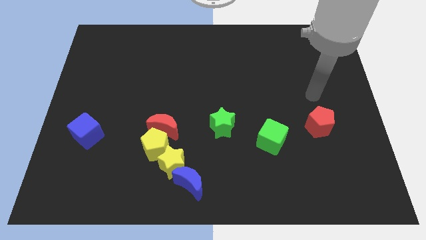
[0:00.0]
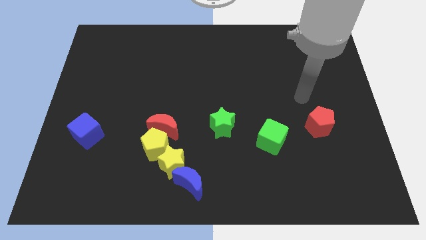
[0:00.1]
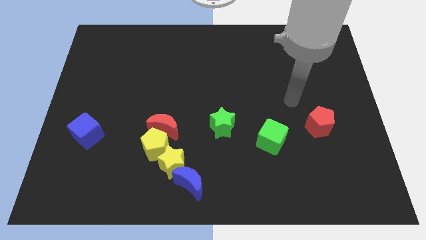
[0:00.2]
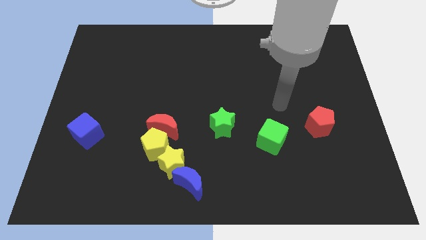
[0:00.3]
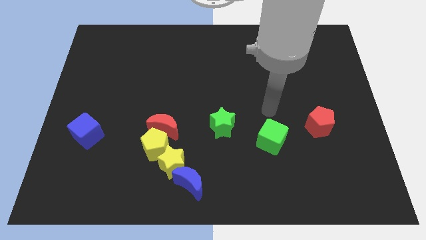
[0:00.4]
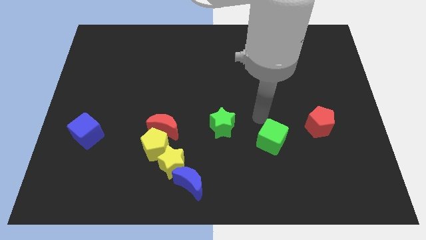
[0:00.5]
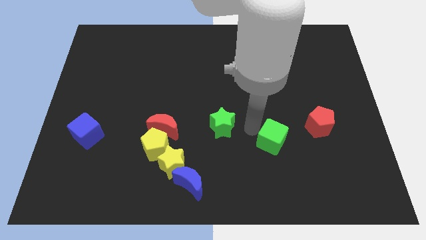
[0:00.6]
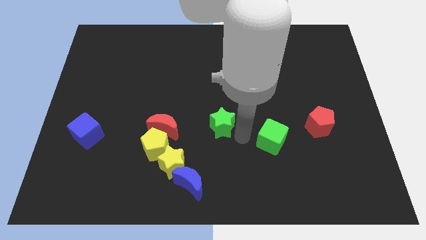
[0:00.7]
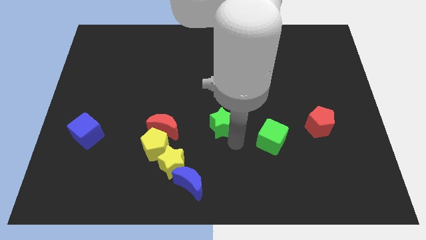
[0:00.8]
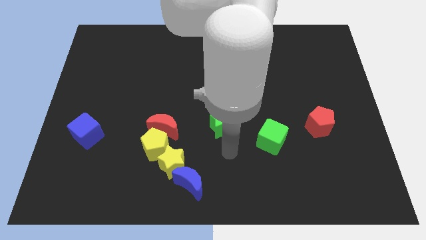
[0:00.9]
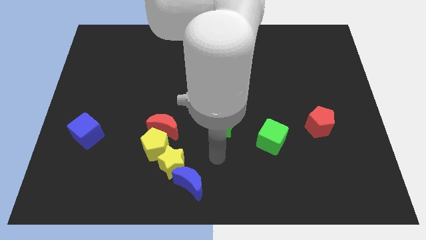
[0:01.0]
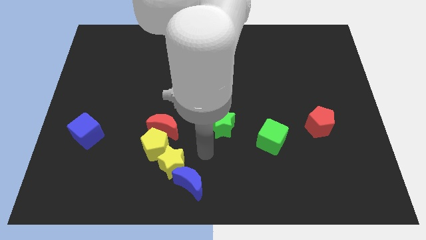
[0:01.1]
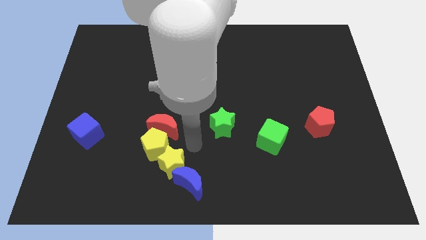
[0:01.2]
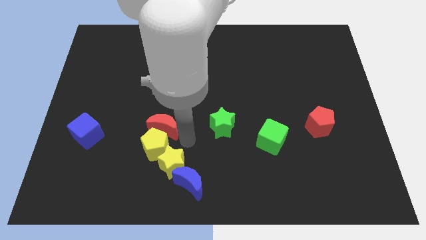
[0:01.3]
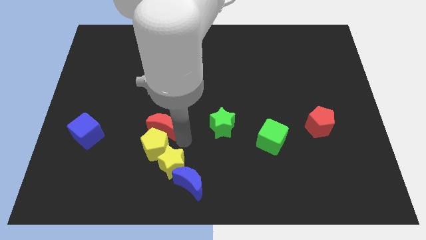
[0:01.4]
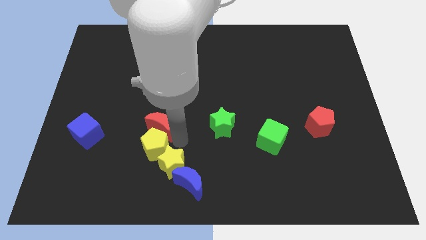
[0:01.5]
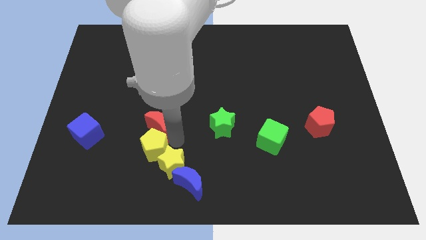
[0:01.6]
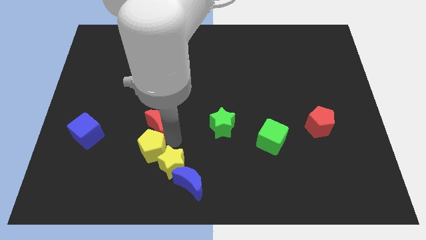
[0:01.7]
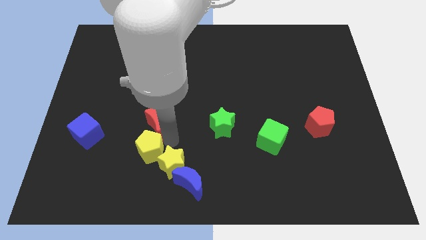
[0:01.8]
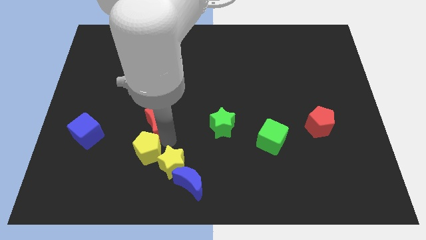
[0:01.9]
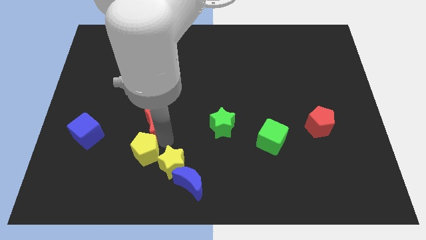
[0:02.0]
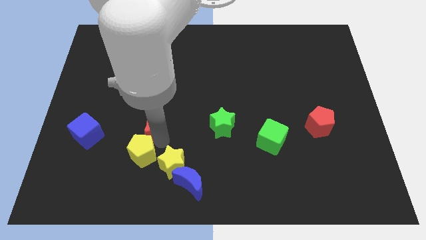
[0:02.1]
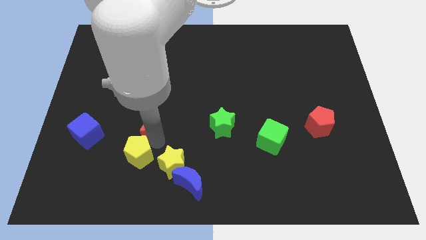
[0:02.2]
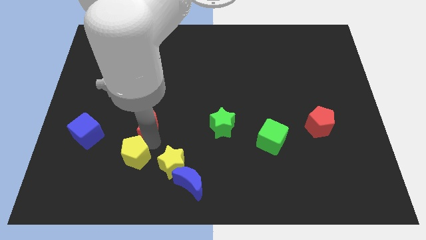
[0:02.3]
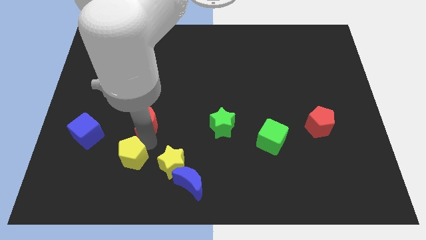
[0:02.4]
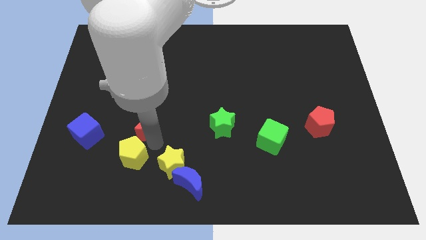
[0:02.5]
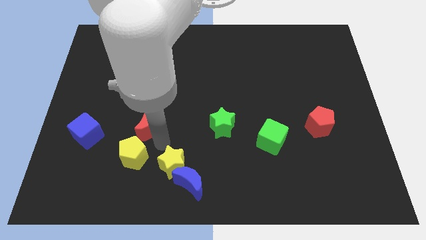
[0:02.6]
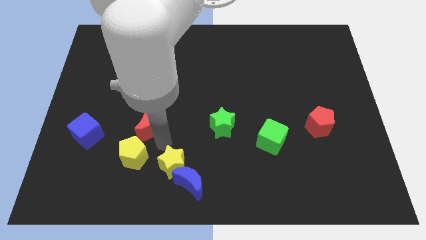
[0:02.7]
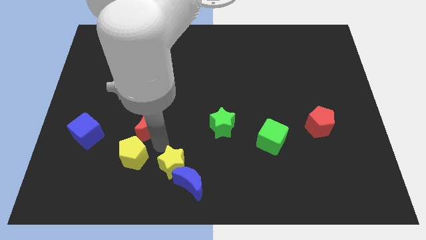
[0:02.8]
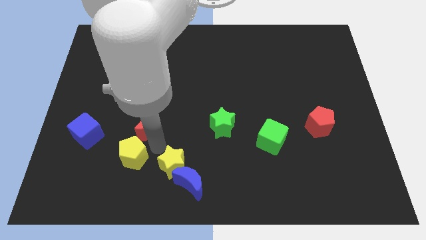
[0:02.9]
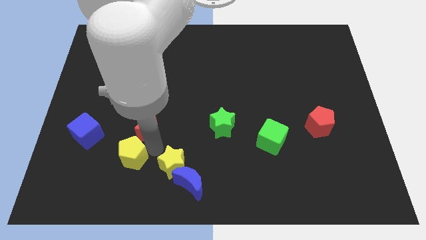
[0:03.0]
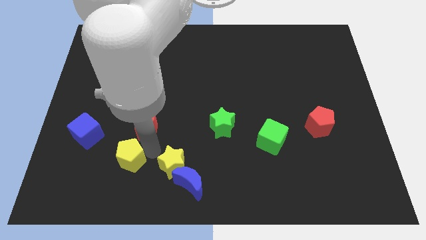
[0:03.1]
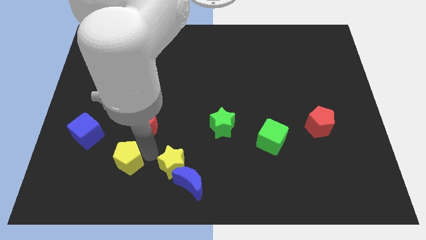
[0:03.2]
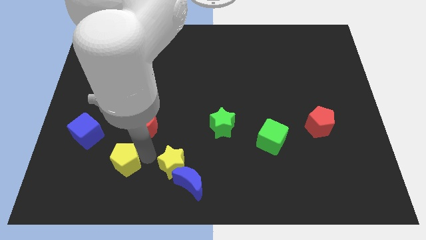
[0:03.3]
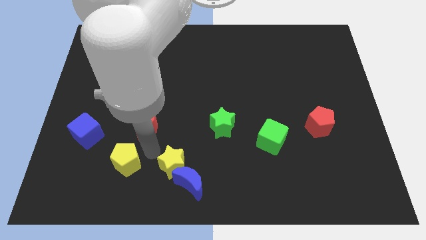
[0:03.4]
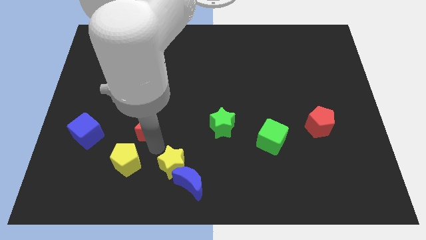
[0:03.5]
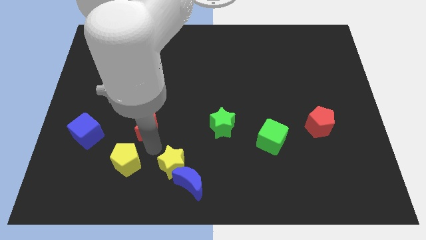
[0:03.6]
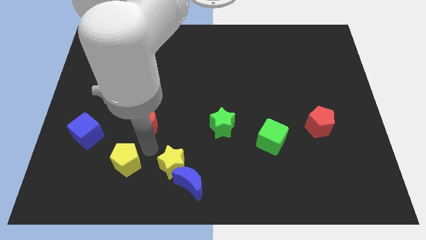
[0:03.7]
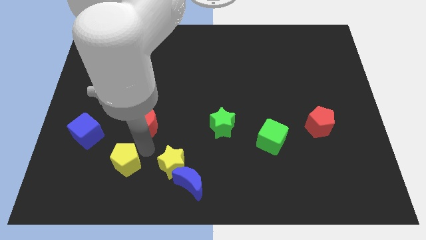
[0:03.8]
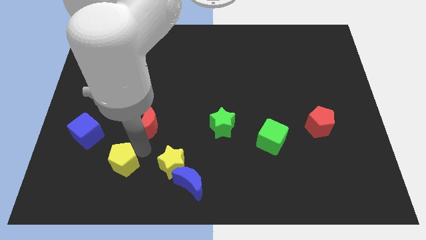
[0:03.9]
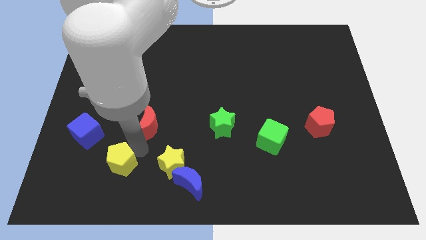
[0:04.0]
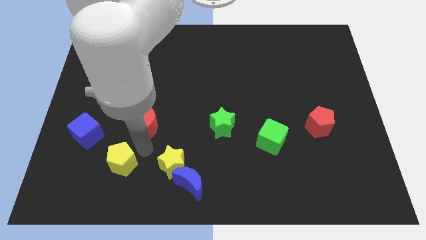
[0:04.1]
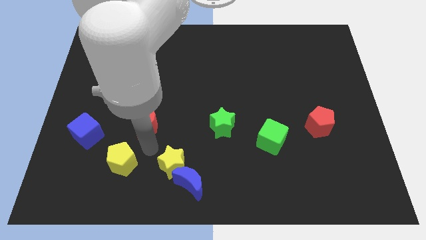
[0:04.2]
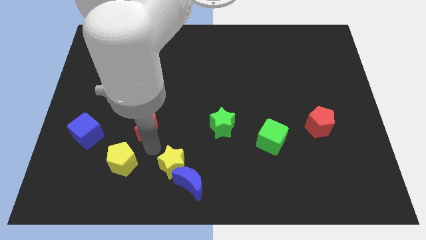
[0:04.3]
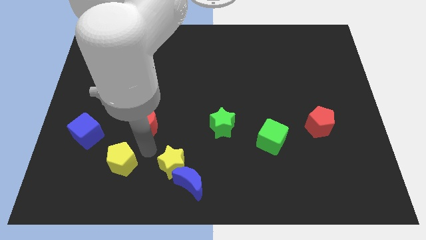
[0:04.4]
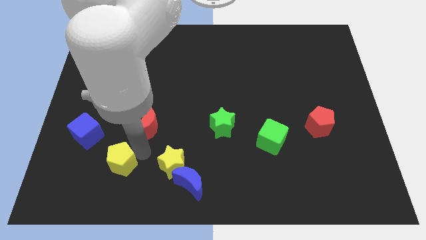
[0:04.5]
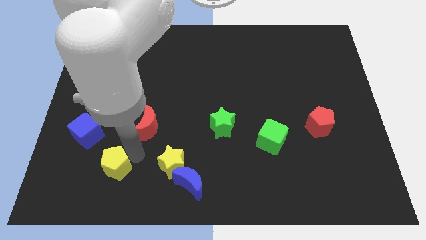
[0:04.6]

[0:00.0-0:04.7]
pull the yellow pentagon apart from the red moon and yellow star

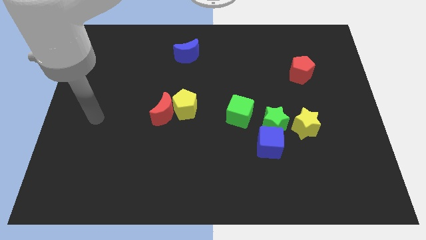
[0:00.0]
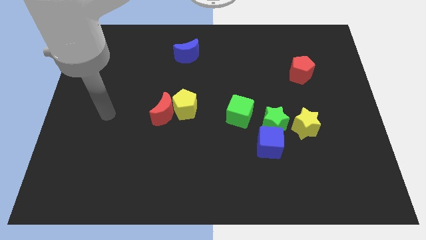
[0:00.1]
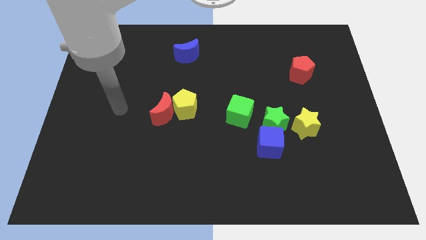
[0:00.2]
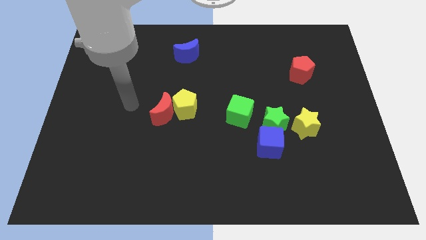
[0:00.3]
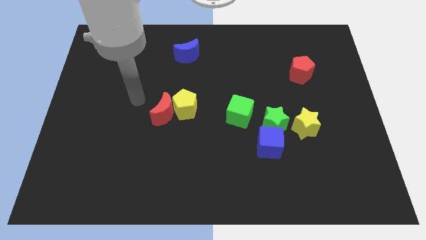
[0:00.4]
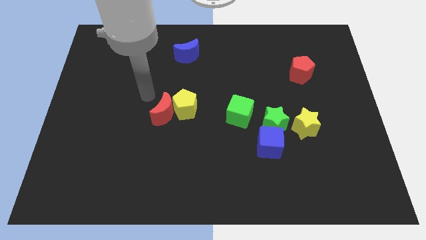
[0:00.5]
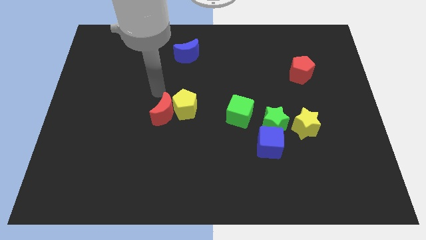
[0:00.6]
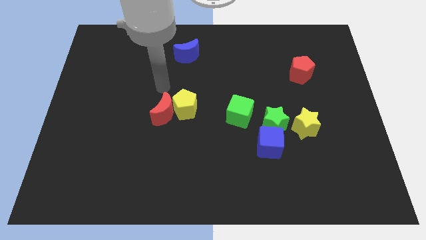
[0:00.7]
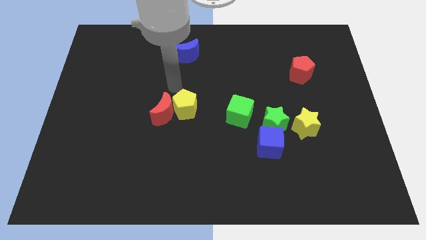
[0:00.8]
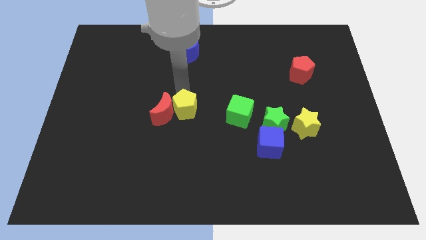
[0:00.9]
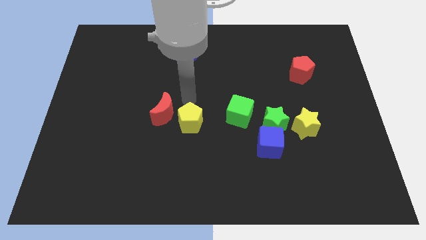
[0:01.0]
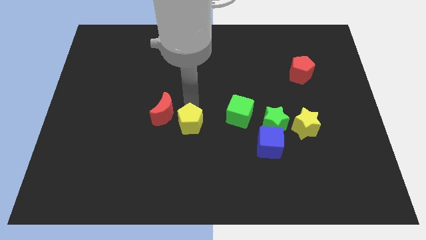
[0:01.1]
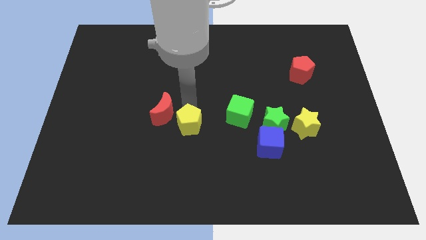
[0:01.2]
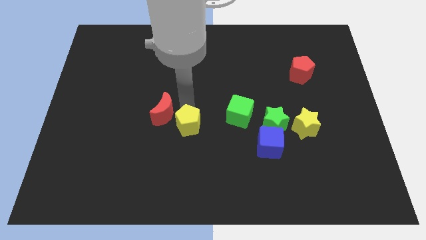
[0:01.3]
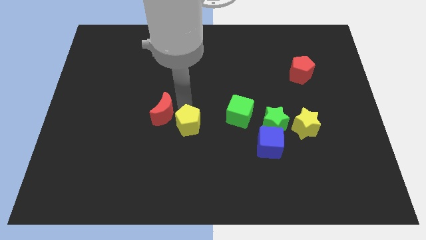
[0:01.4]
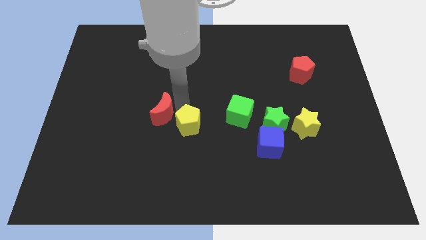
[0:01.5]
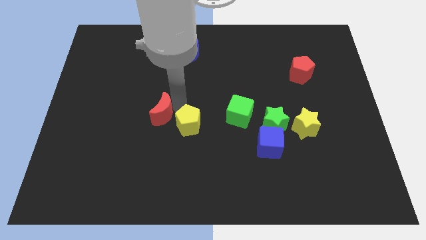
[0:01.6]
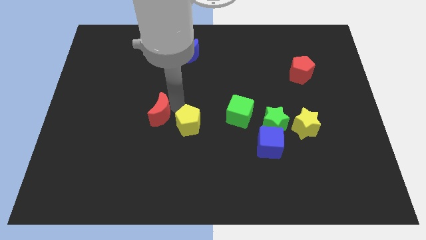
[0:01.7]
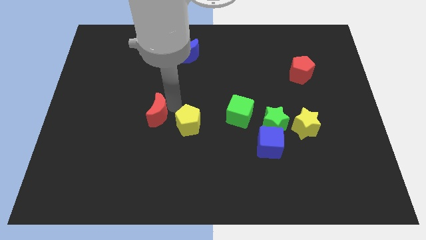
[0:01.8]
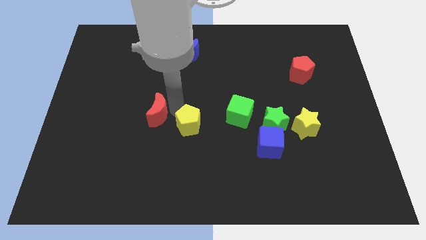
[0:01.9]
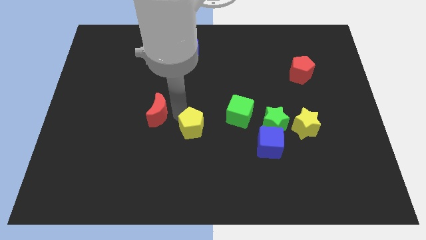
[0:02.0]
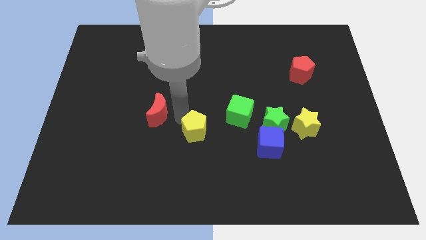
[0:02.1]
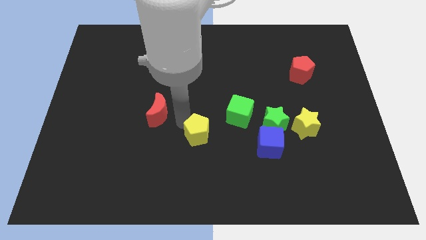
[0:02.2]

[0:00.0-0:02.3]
move the red moon away from the yellow pentagon

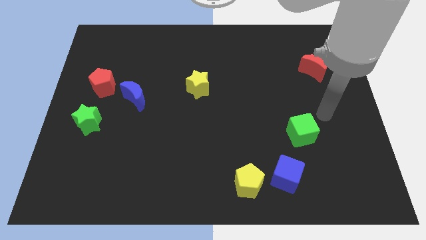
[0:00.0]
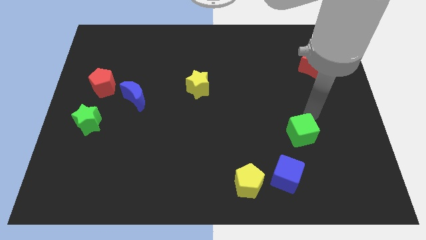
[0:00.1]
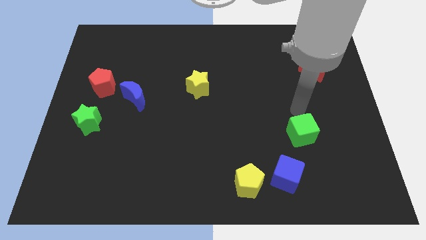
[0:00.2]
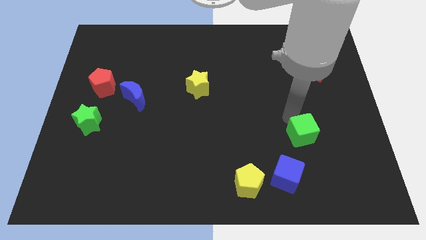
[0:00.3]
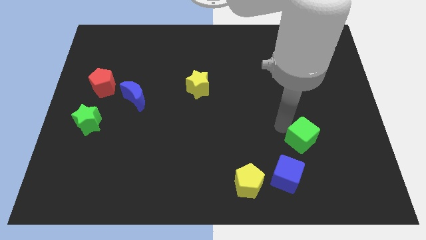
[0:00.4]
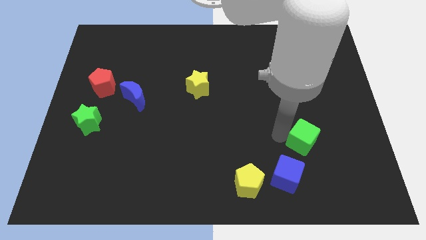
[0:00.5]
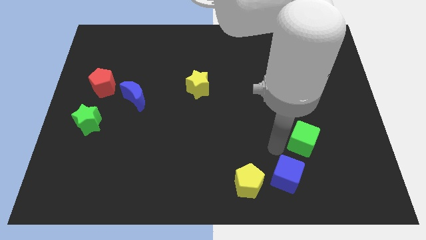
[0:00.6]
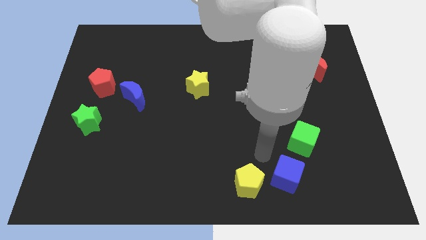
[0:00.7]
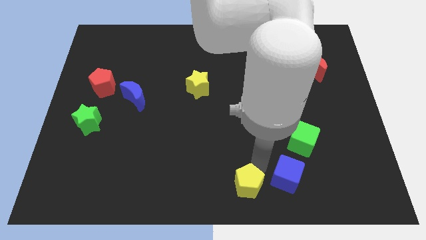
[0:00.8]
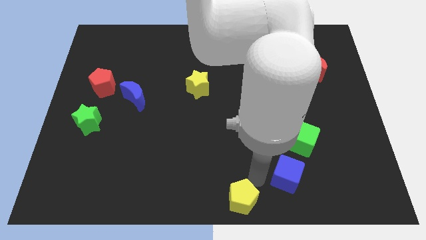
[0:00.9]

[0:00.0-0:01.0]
move the blue cube away from the yellow pentagon

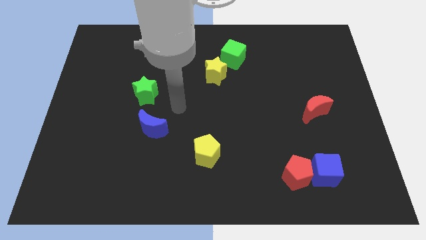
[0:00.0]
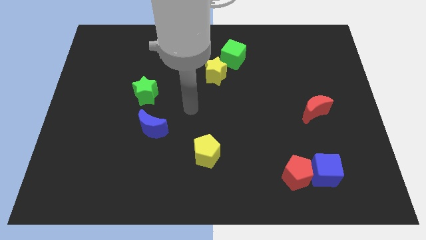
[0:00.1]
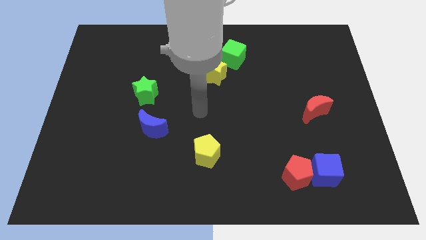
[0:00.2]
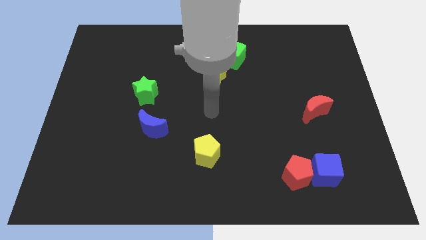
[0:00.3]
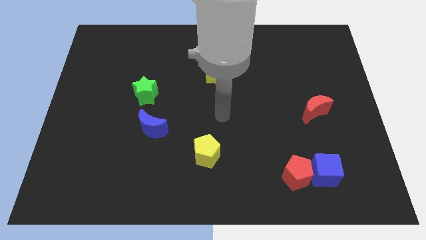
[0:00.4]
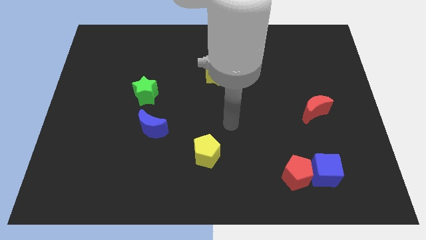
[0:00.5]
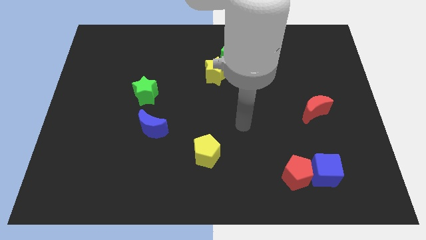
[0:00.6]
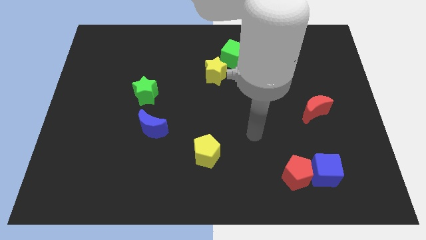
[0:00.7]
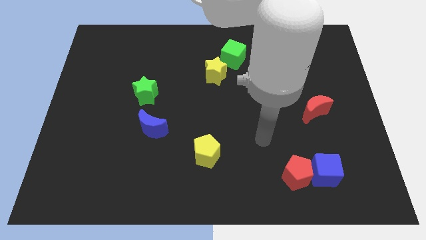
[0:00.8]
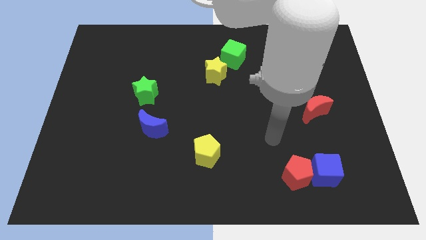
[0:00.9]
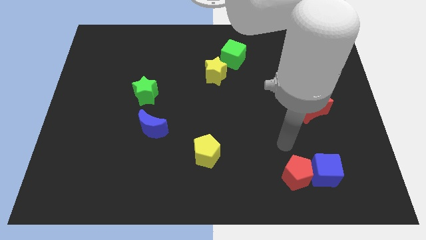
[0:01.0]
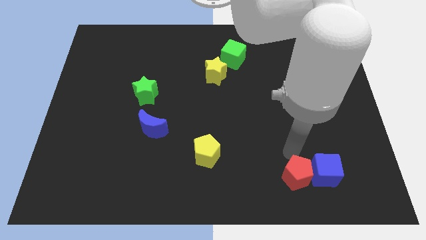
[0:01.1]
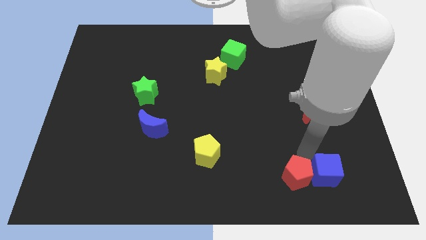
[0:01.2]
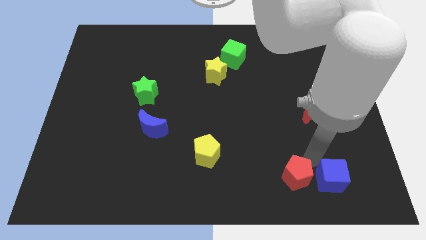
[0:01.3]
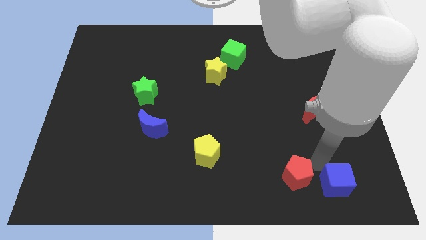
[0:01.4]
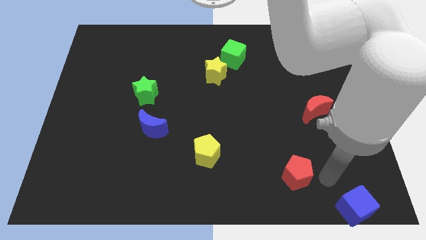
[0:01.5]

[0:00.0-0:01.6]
separate the red pentagon from the blue cube
